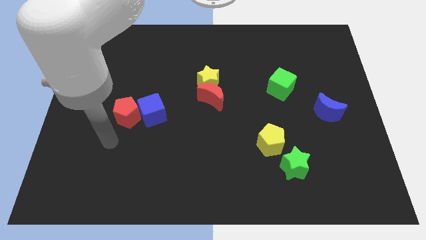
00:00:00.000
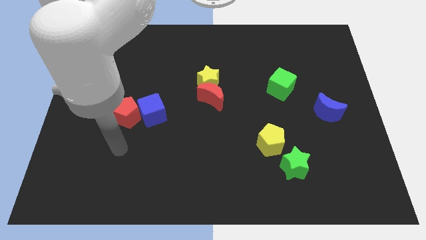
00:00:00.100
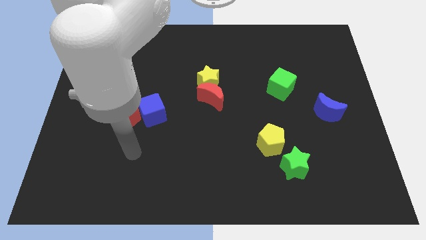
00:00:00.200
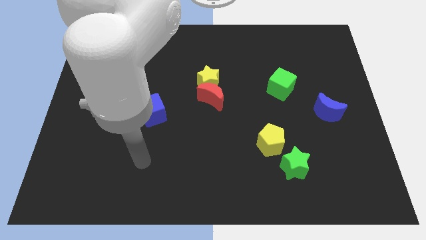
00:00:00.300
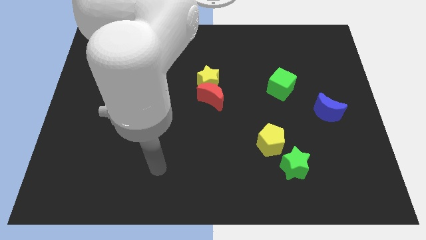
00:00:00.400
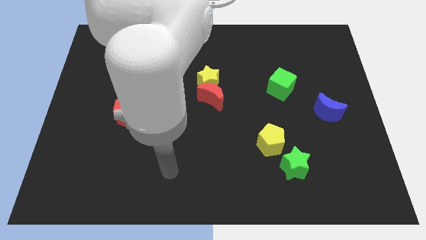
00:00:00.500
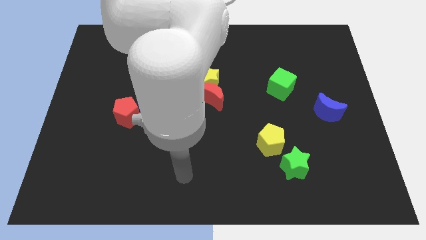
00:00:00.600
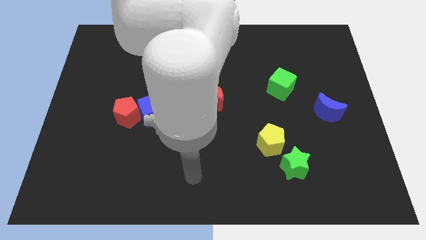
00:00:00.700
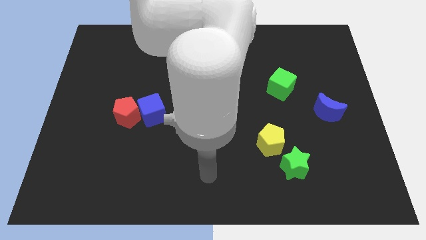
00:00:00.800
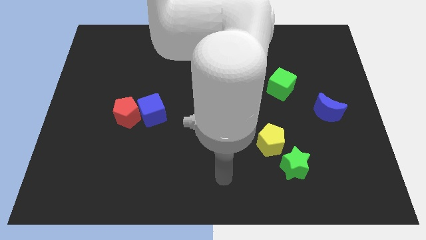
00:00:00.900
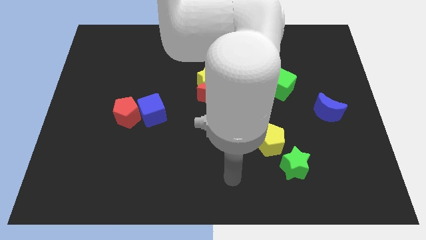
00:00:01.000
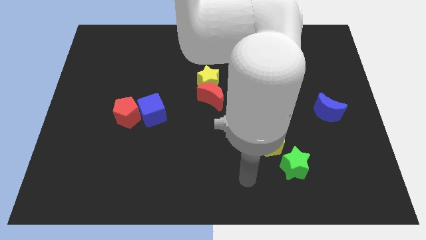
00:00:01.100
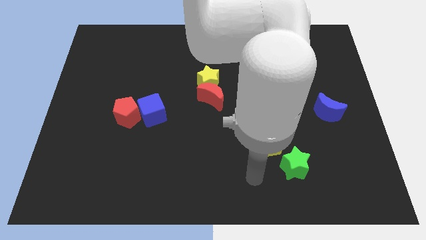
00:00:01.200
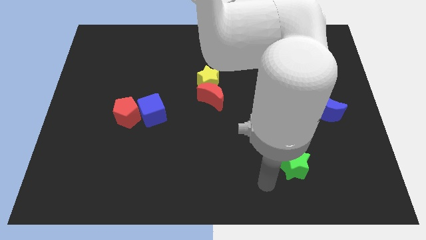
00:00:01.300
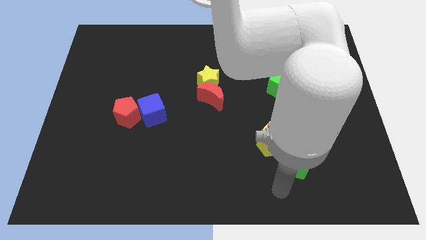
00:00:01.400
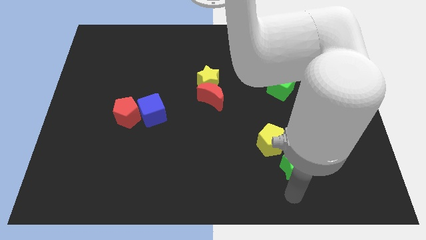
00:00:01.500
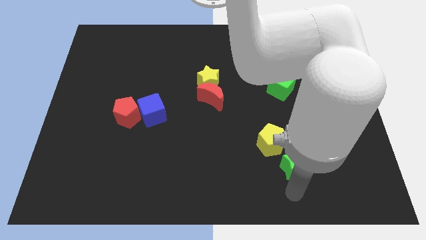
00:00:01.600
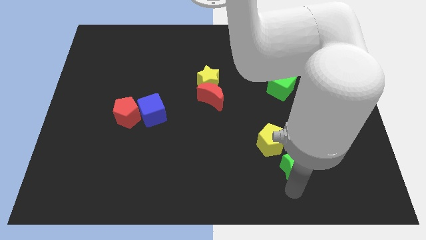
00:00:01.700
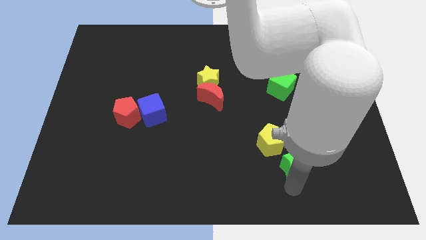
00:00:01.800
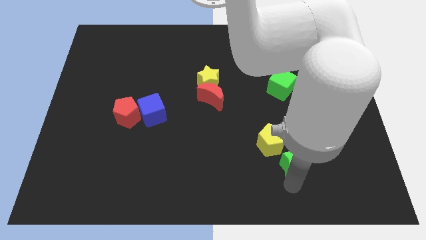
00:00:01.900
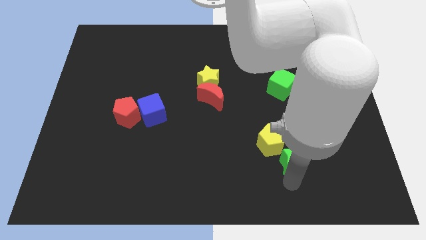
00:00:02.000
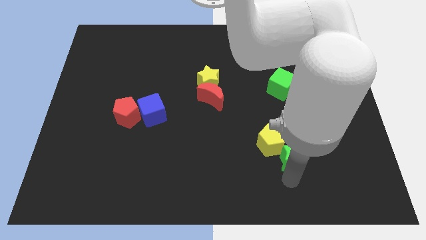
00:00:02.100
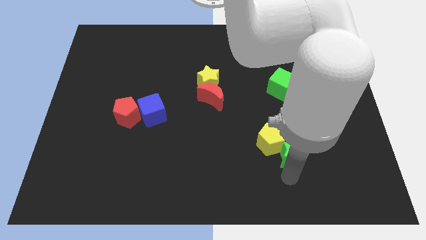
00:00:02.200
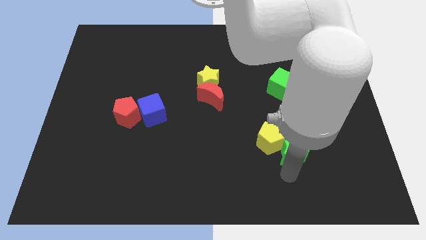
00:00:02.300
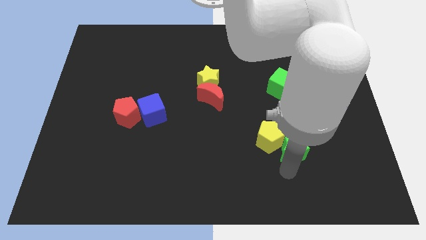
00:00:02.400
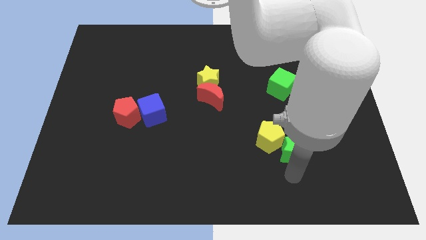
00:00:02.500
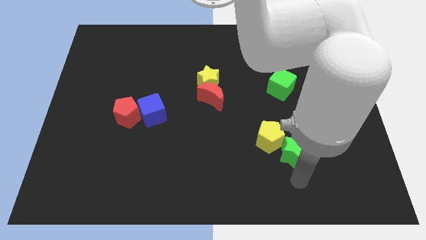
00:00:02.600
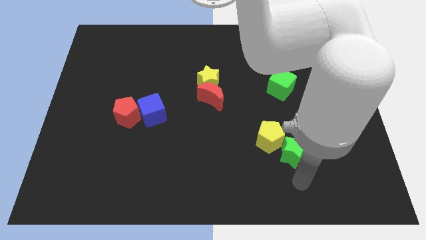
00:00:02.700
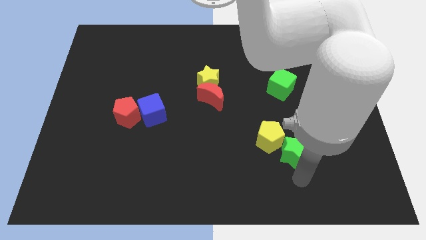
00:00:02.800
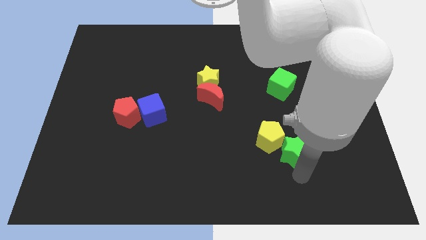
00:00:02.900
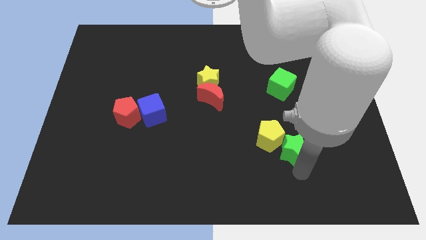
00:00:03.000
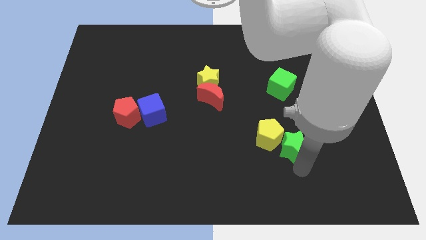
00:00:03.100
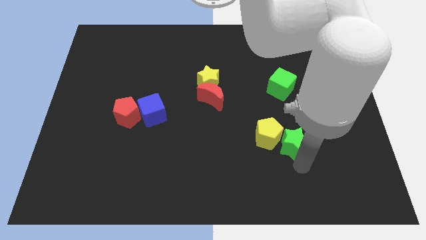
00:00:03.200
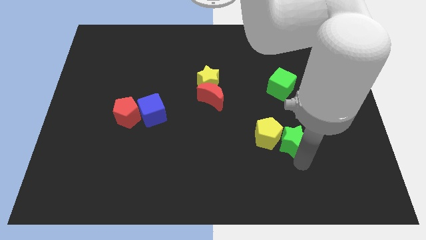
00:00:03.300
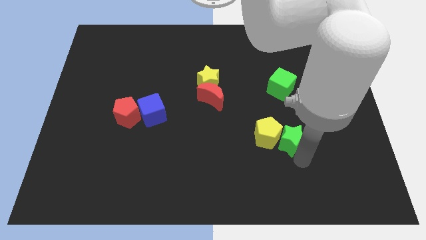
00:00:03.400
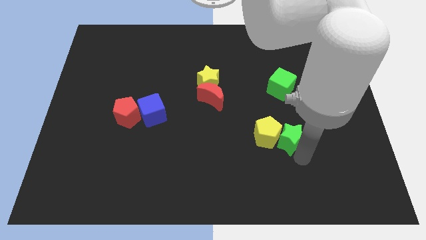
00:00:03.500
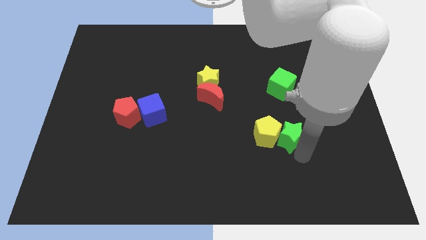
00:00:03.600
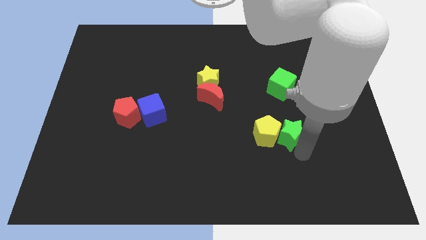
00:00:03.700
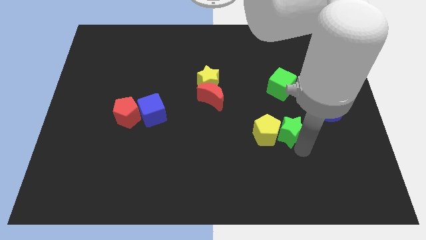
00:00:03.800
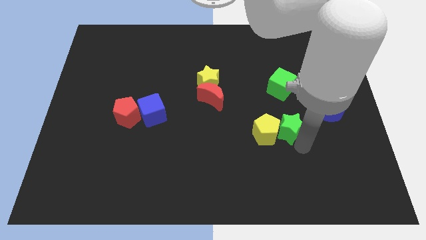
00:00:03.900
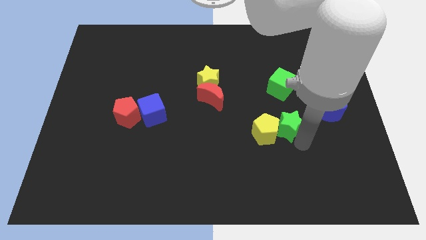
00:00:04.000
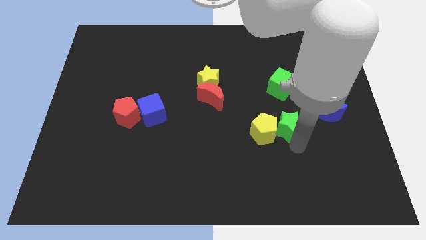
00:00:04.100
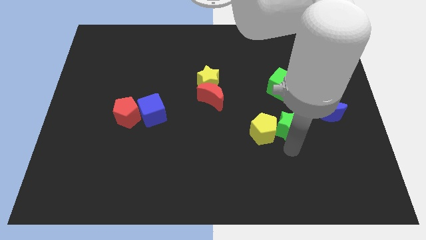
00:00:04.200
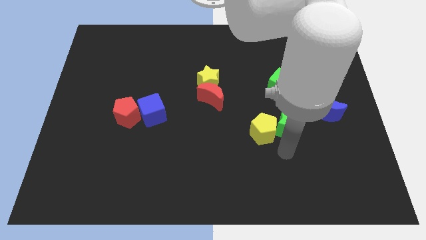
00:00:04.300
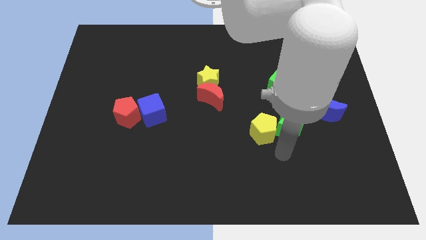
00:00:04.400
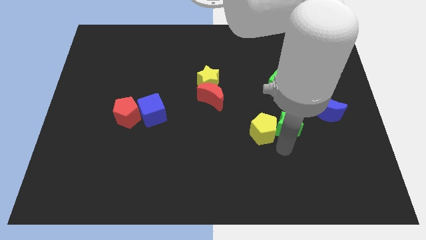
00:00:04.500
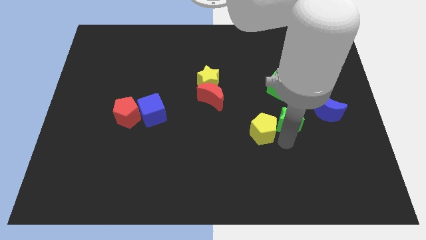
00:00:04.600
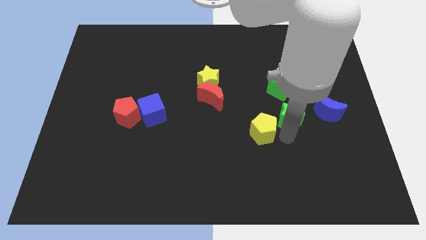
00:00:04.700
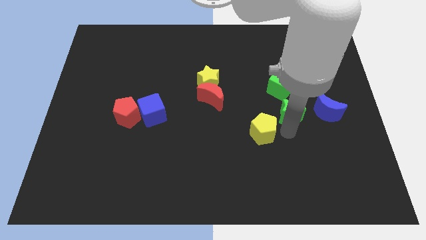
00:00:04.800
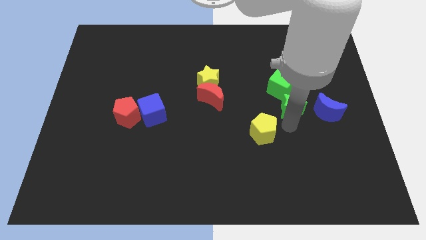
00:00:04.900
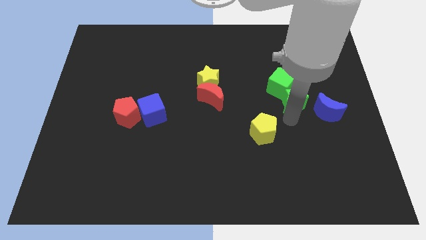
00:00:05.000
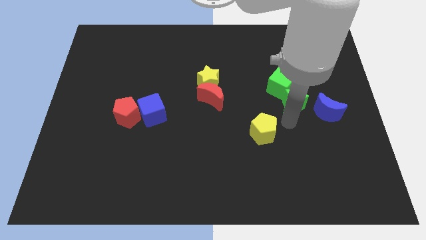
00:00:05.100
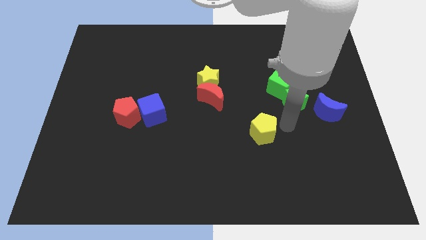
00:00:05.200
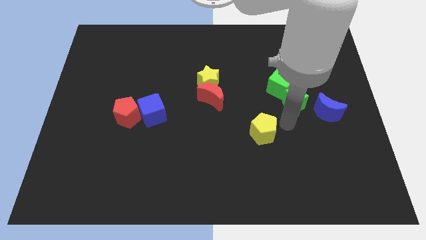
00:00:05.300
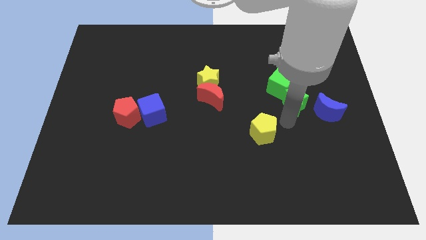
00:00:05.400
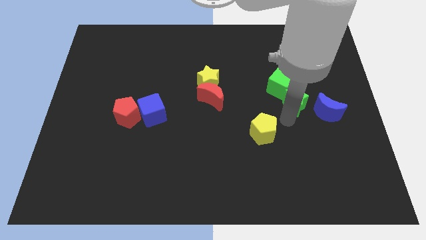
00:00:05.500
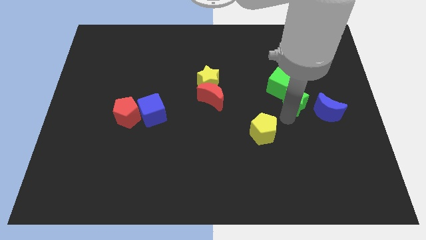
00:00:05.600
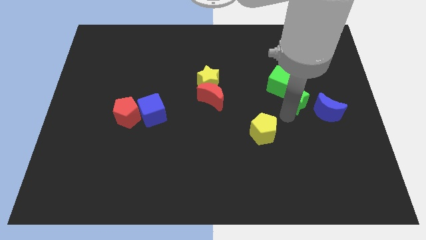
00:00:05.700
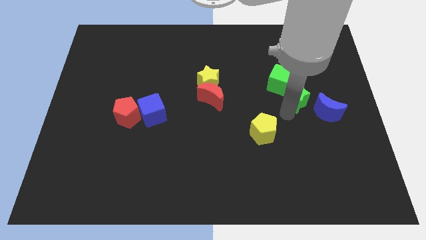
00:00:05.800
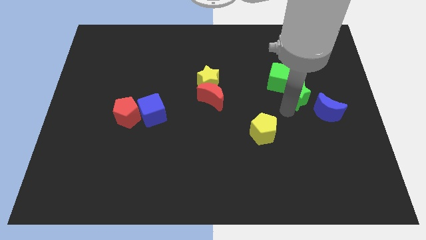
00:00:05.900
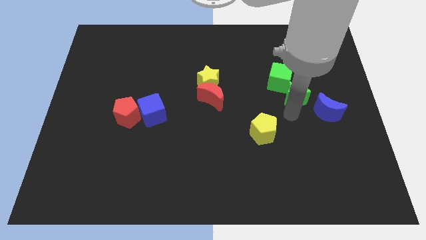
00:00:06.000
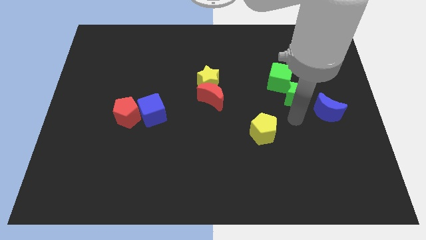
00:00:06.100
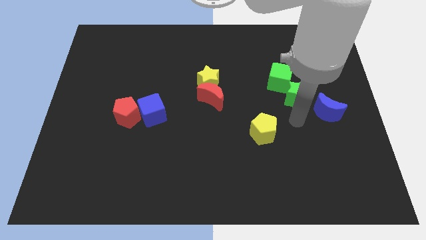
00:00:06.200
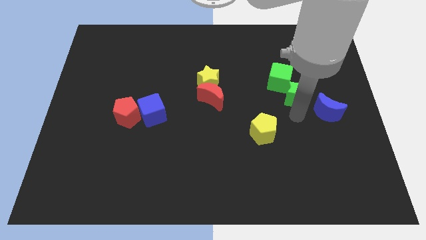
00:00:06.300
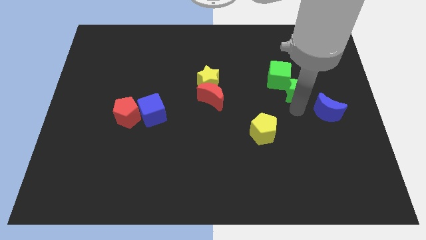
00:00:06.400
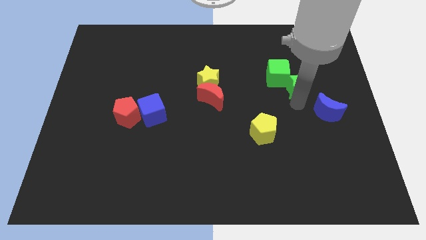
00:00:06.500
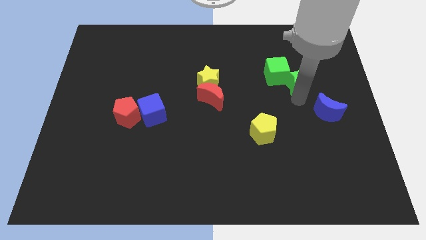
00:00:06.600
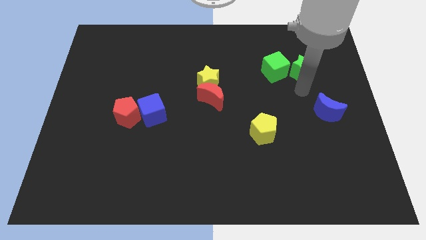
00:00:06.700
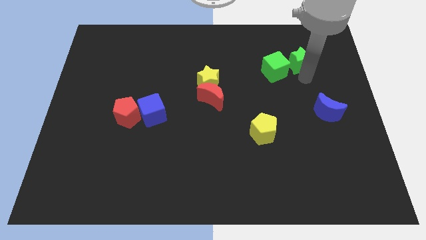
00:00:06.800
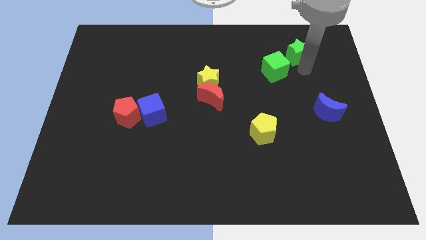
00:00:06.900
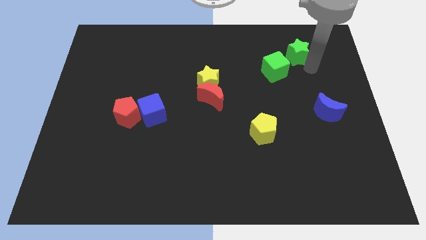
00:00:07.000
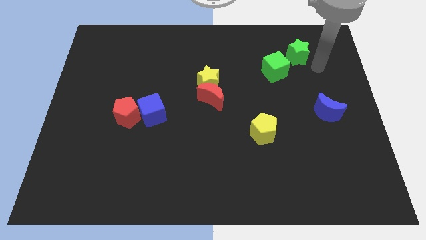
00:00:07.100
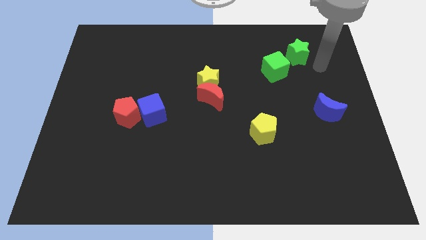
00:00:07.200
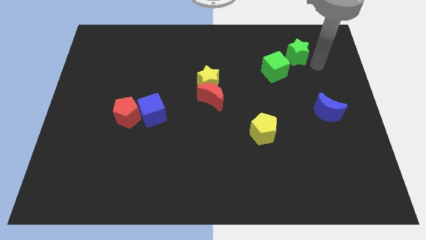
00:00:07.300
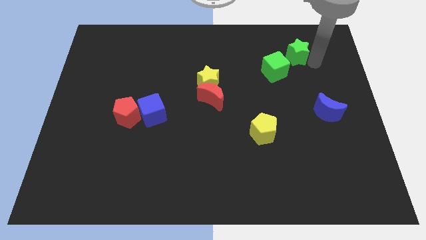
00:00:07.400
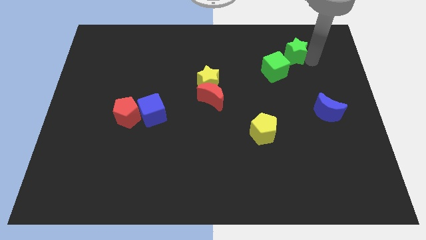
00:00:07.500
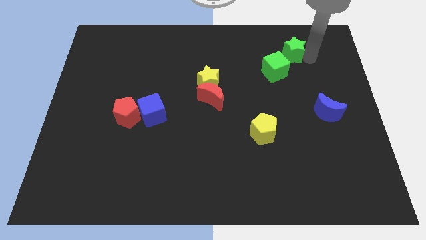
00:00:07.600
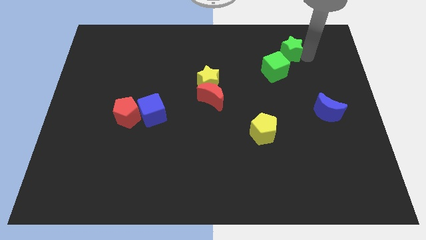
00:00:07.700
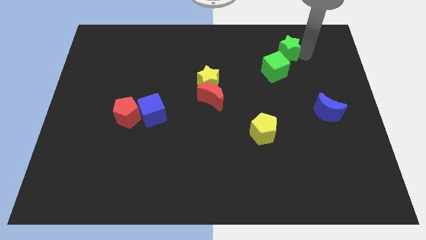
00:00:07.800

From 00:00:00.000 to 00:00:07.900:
move the green star to the top side of the green cube
